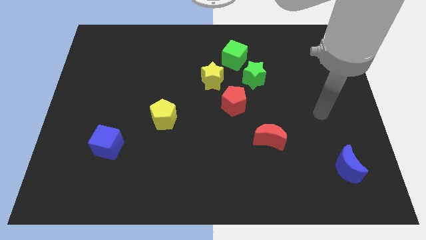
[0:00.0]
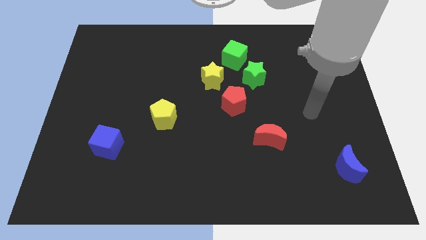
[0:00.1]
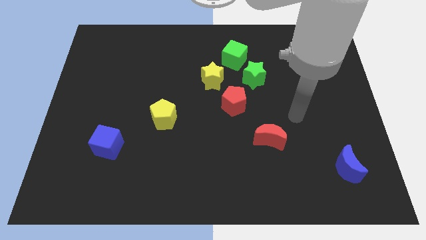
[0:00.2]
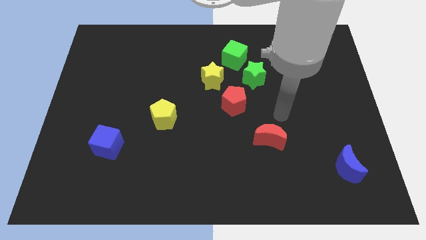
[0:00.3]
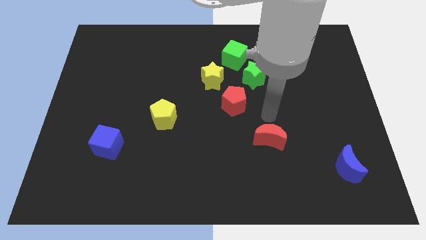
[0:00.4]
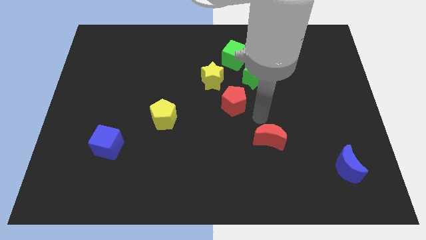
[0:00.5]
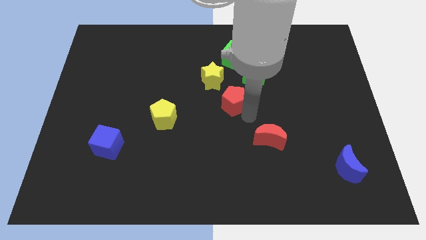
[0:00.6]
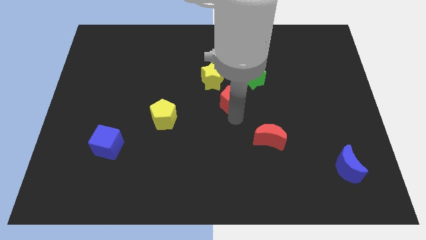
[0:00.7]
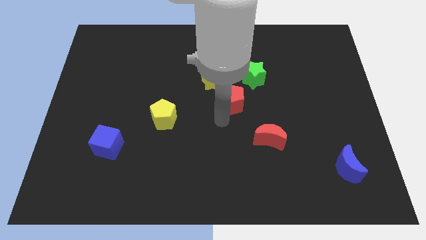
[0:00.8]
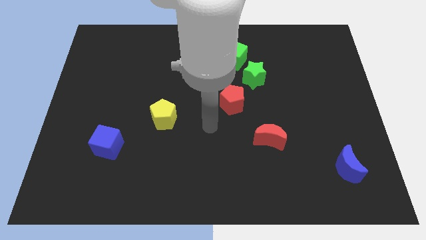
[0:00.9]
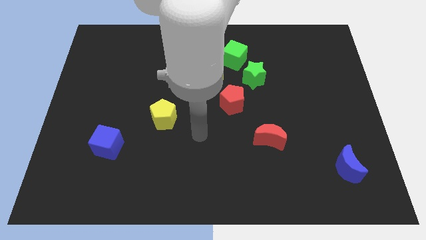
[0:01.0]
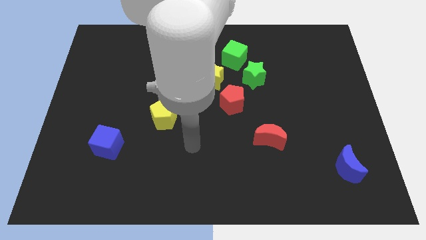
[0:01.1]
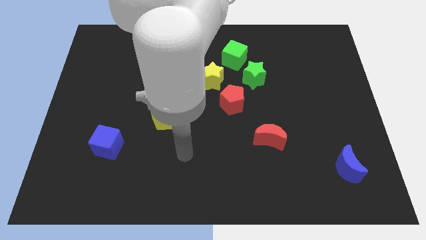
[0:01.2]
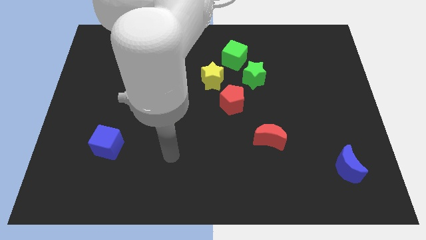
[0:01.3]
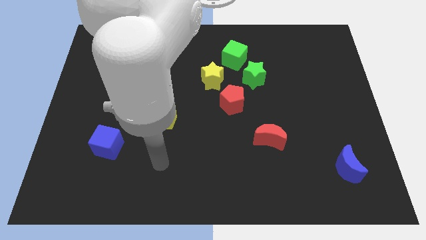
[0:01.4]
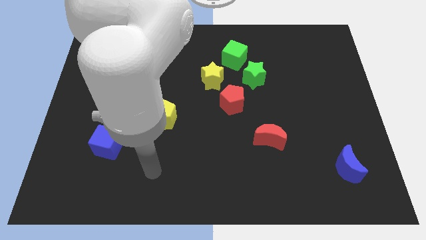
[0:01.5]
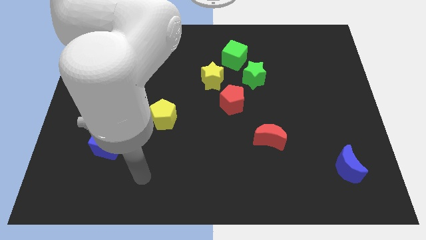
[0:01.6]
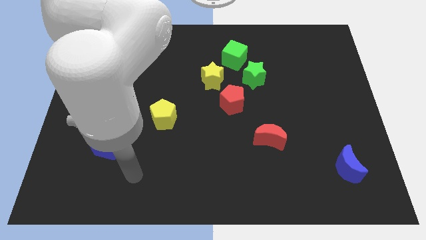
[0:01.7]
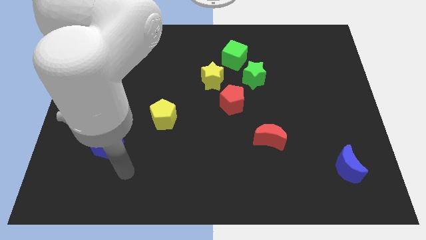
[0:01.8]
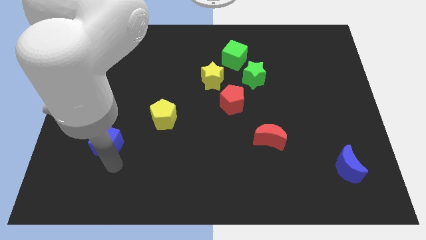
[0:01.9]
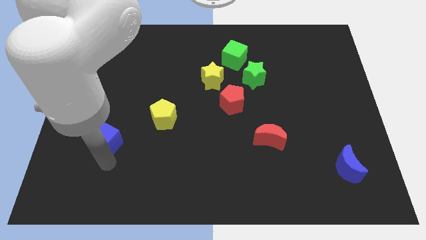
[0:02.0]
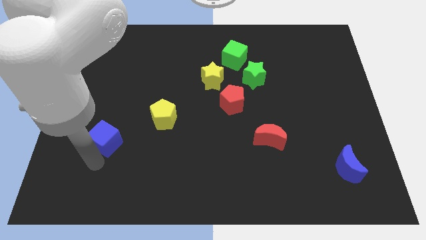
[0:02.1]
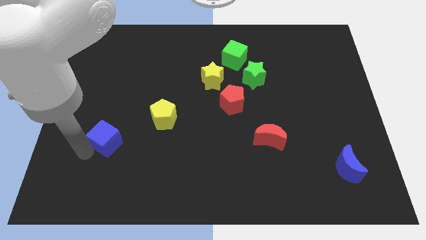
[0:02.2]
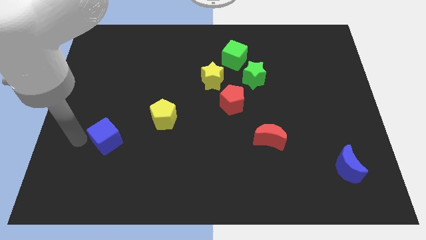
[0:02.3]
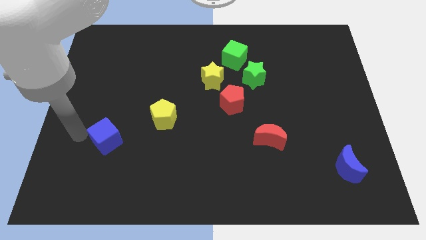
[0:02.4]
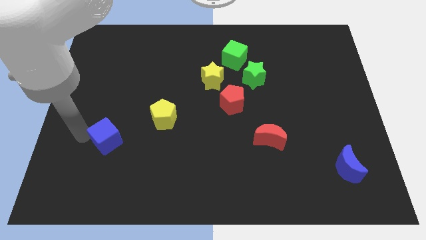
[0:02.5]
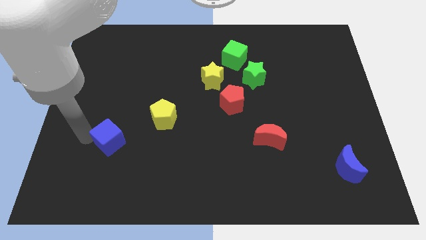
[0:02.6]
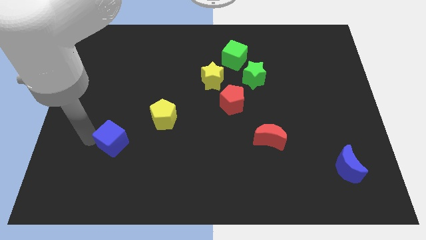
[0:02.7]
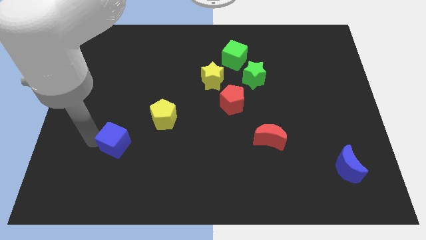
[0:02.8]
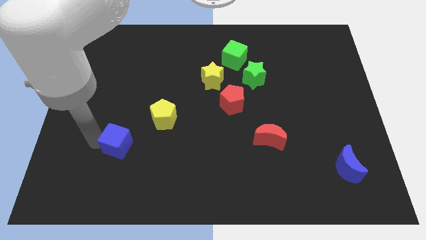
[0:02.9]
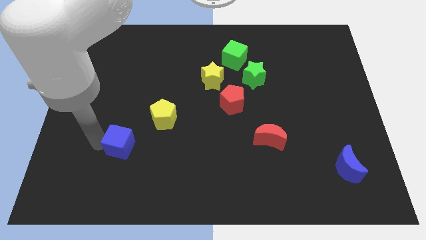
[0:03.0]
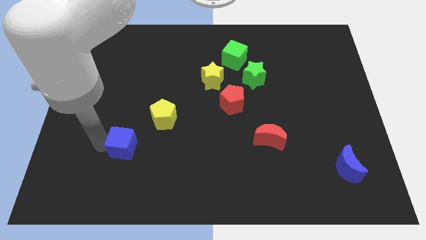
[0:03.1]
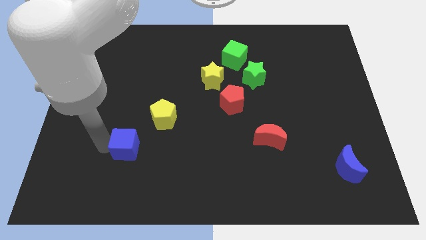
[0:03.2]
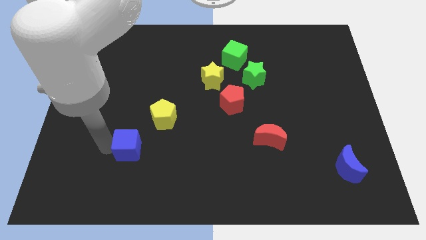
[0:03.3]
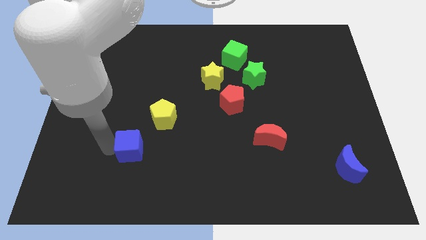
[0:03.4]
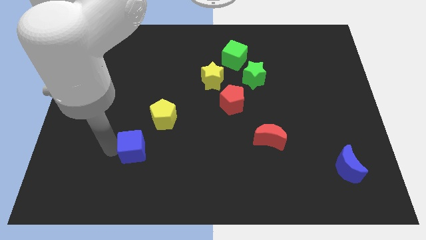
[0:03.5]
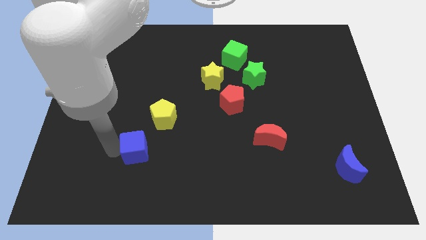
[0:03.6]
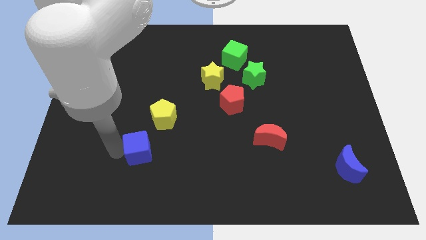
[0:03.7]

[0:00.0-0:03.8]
move the blue cube a little bit to the right

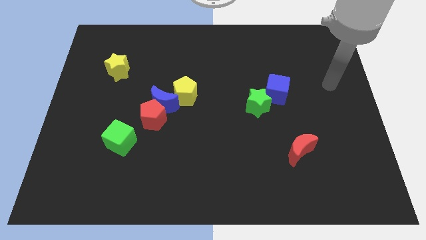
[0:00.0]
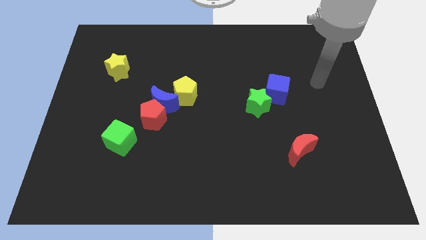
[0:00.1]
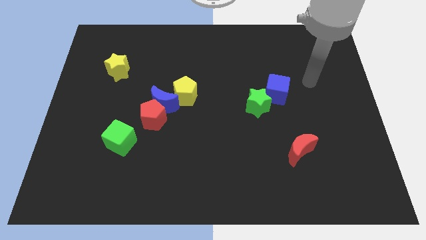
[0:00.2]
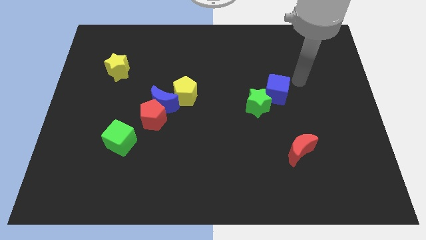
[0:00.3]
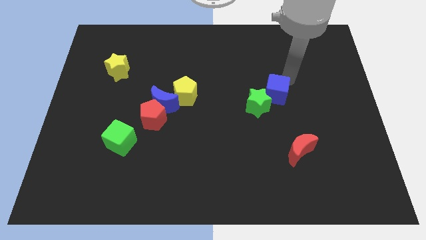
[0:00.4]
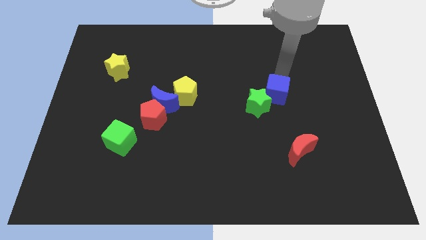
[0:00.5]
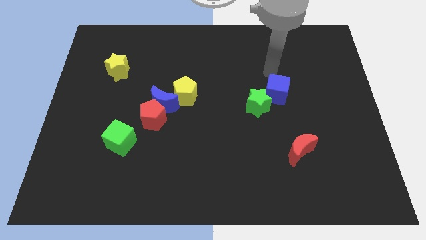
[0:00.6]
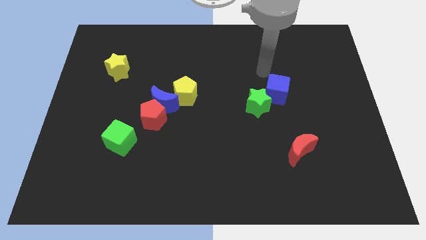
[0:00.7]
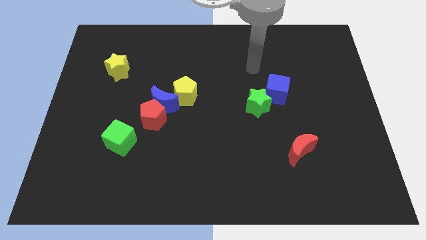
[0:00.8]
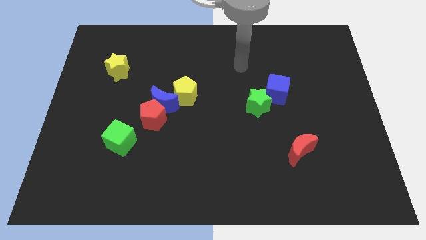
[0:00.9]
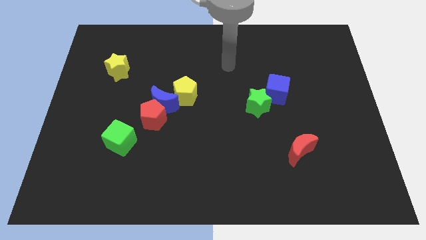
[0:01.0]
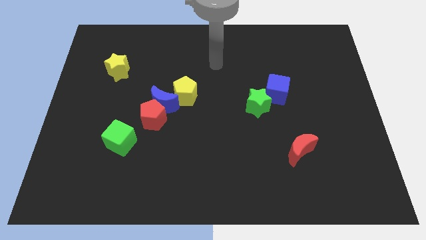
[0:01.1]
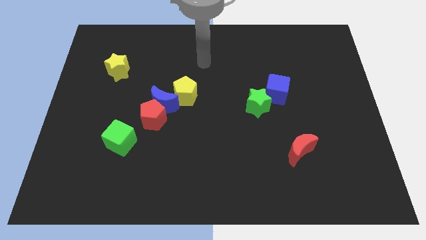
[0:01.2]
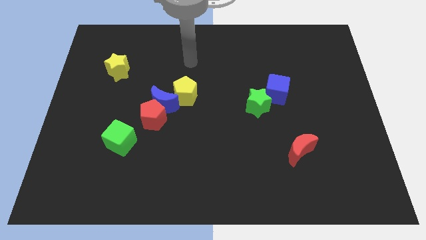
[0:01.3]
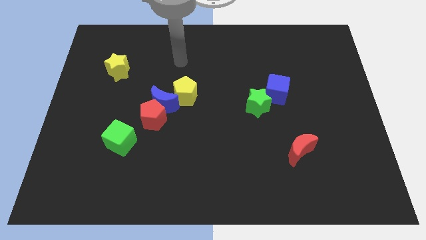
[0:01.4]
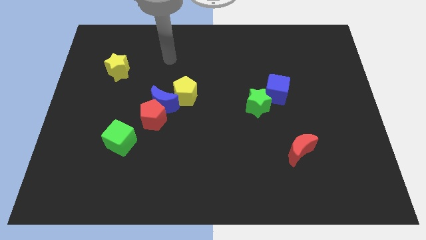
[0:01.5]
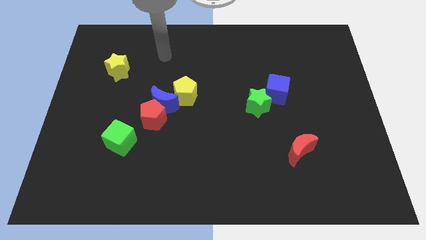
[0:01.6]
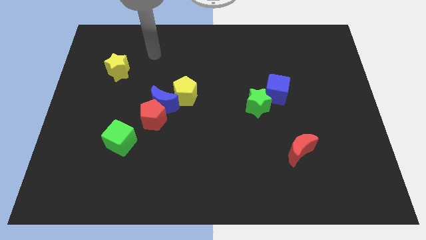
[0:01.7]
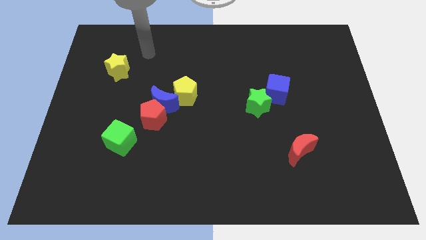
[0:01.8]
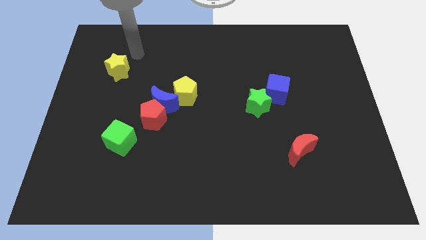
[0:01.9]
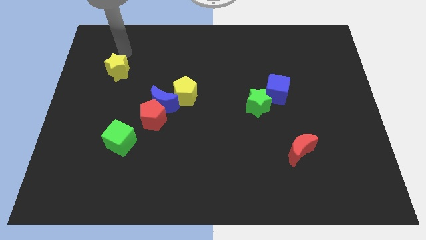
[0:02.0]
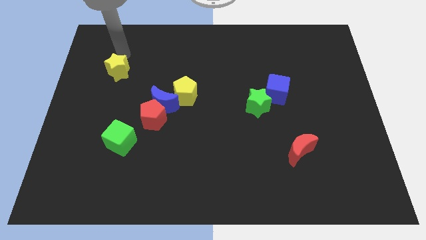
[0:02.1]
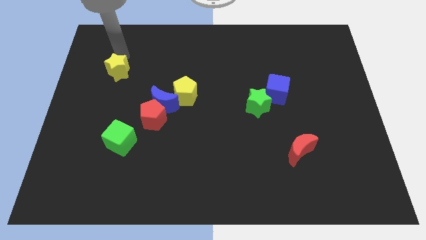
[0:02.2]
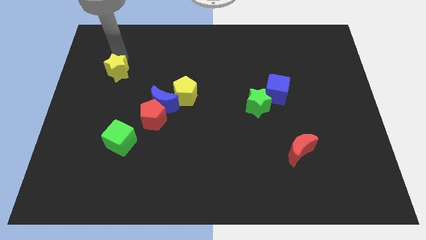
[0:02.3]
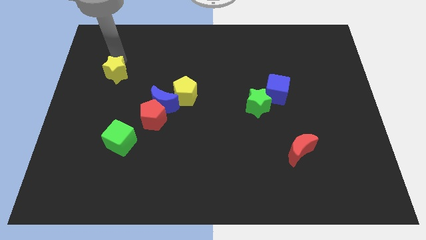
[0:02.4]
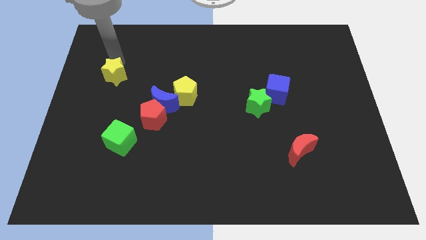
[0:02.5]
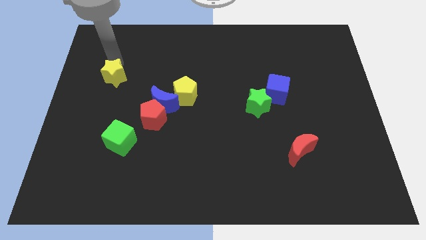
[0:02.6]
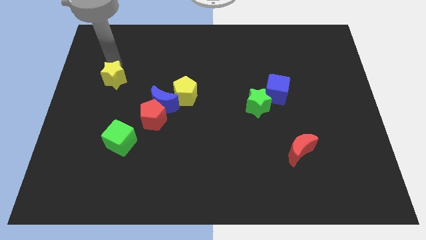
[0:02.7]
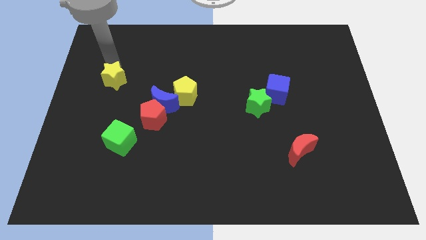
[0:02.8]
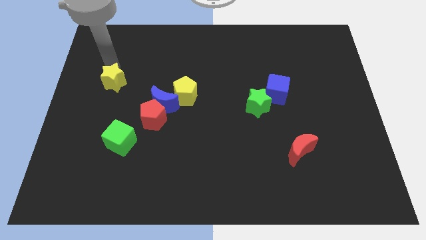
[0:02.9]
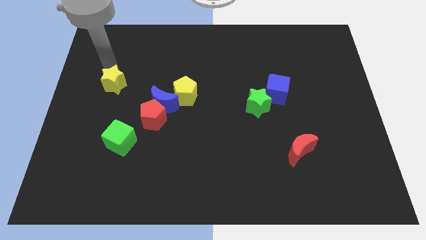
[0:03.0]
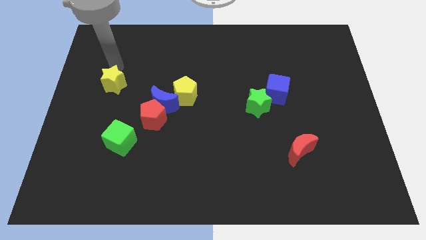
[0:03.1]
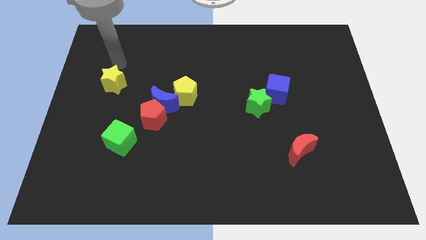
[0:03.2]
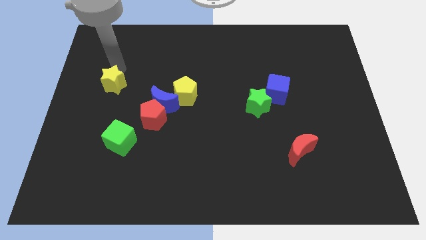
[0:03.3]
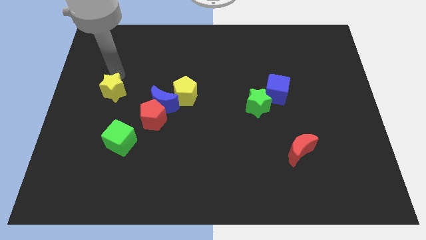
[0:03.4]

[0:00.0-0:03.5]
slightly push the yellow star down

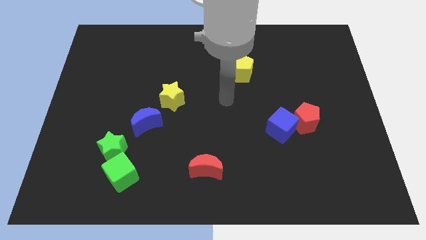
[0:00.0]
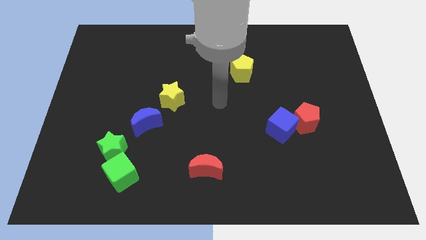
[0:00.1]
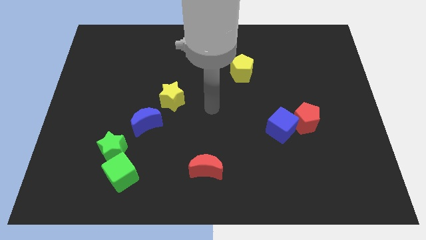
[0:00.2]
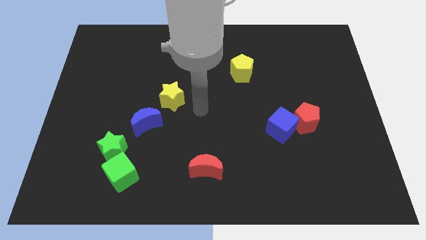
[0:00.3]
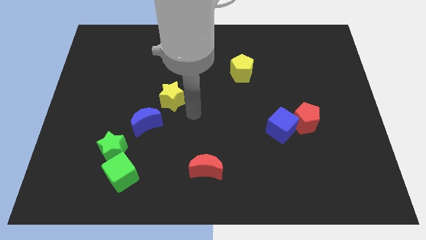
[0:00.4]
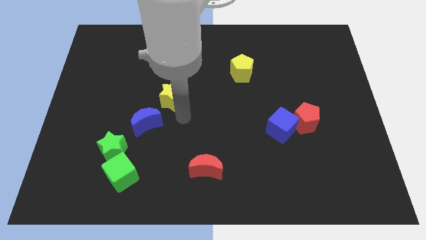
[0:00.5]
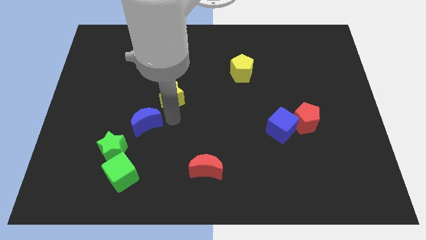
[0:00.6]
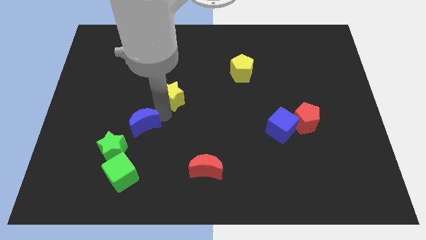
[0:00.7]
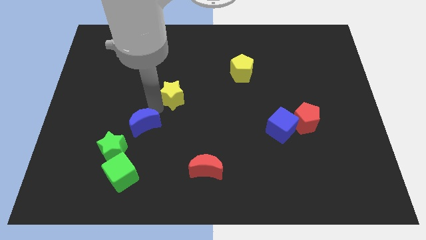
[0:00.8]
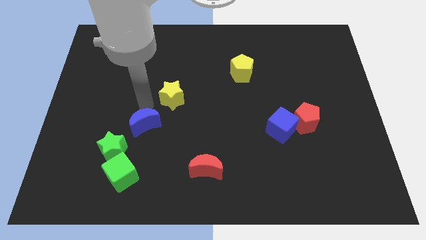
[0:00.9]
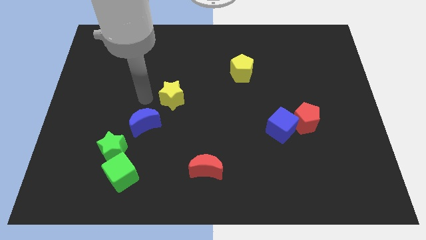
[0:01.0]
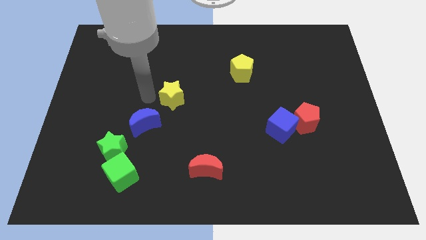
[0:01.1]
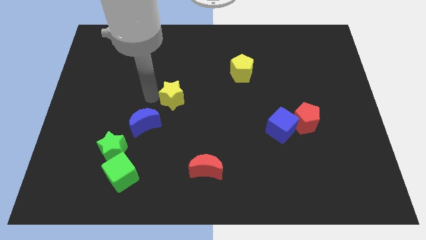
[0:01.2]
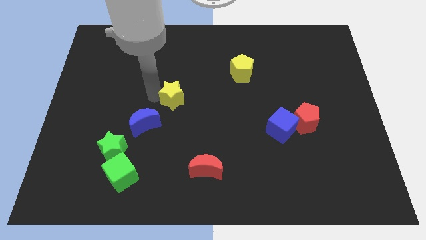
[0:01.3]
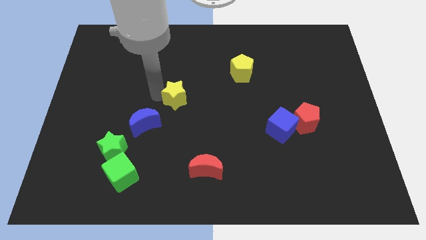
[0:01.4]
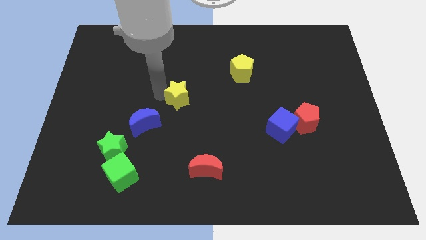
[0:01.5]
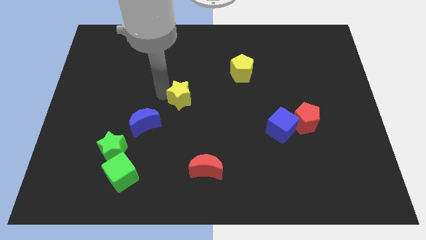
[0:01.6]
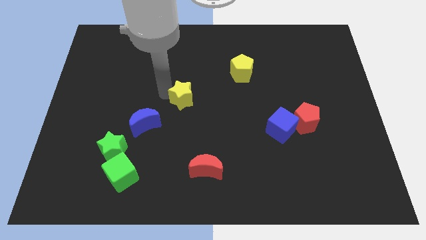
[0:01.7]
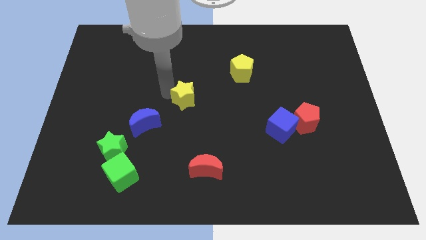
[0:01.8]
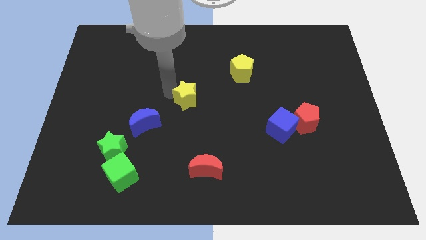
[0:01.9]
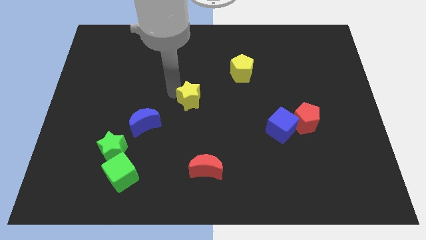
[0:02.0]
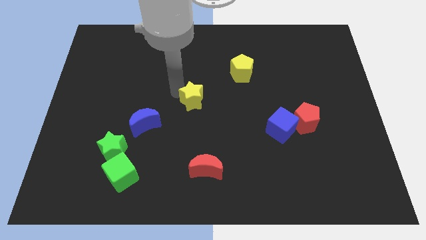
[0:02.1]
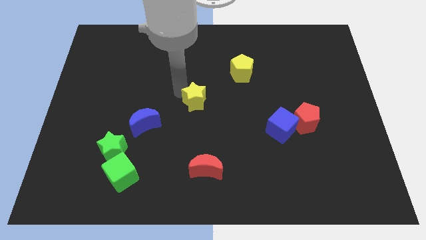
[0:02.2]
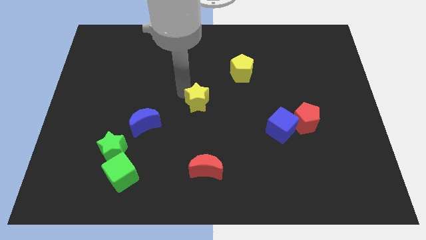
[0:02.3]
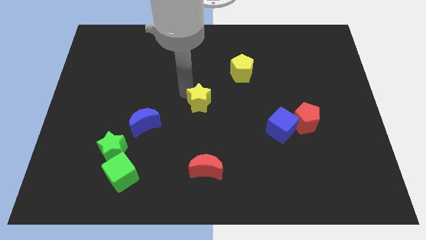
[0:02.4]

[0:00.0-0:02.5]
slide the yellow star to the right a little
